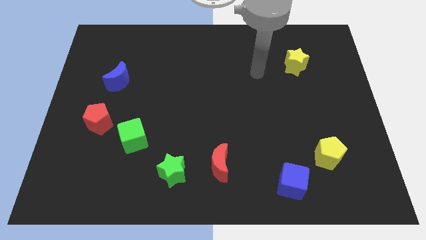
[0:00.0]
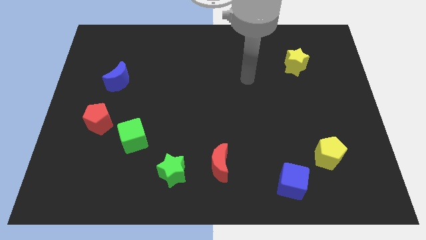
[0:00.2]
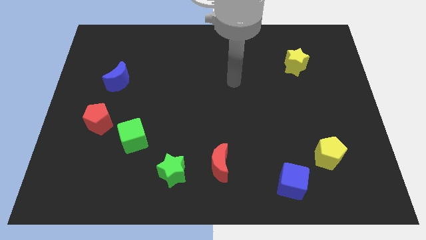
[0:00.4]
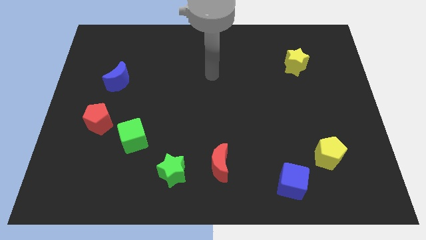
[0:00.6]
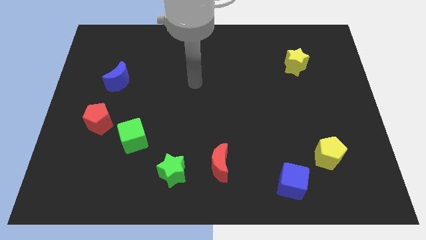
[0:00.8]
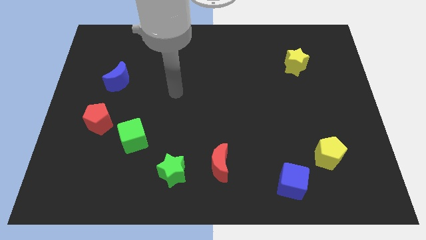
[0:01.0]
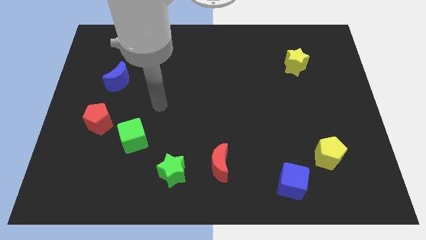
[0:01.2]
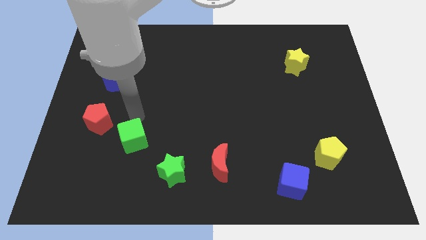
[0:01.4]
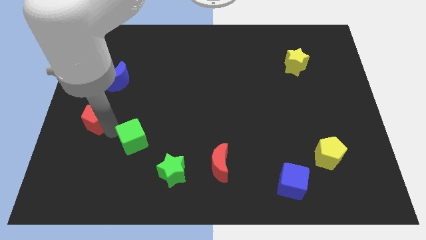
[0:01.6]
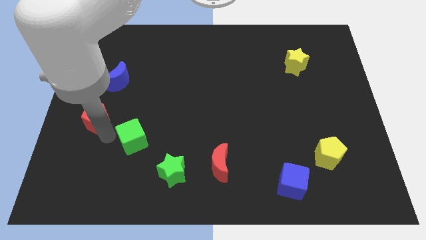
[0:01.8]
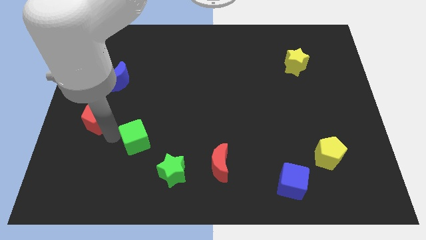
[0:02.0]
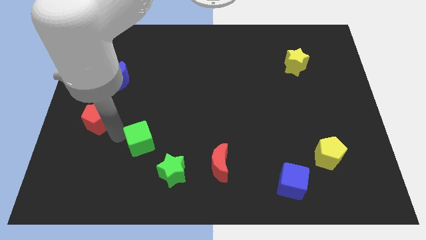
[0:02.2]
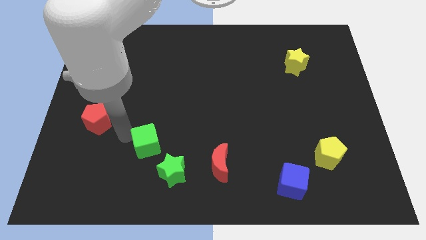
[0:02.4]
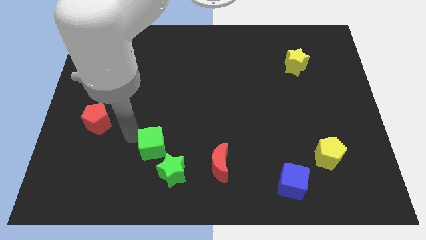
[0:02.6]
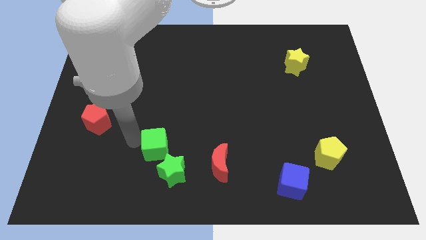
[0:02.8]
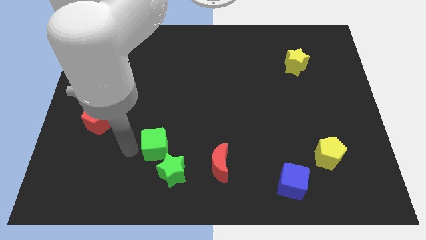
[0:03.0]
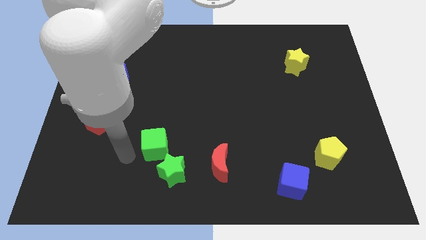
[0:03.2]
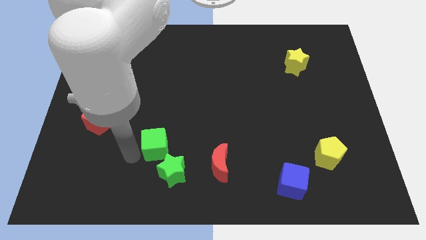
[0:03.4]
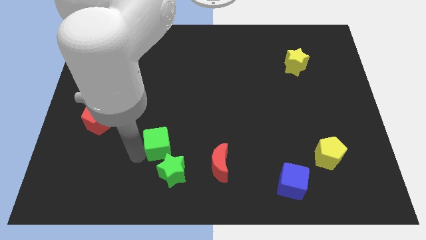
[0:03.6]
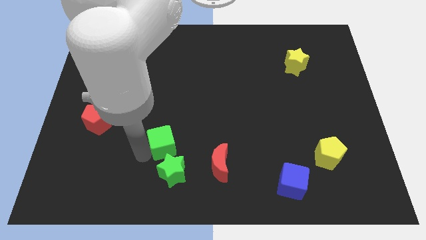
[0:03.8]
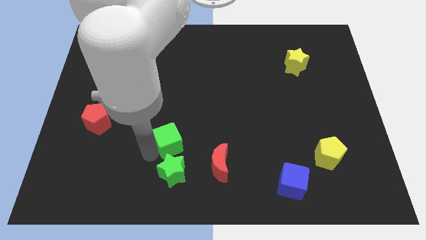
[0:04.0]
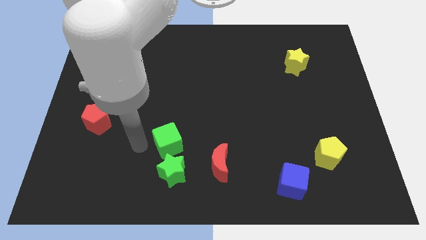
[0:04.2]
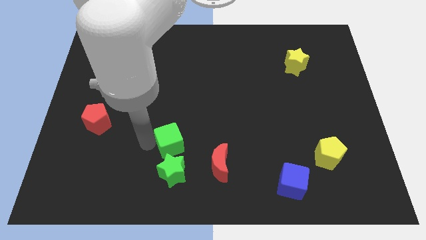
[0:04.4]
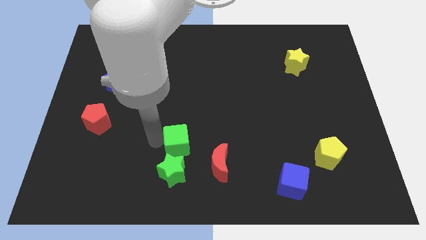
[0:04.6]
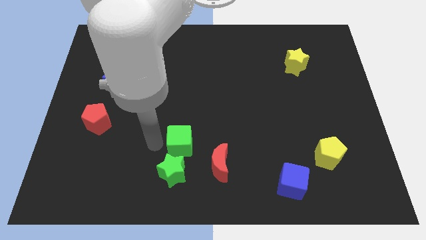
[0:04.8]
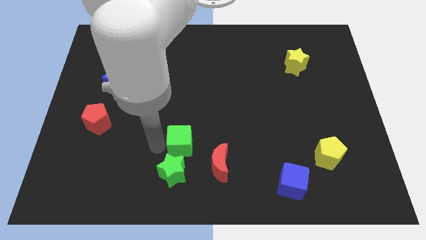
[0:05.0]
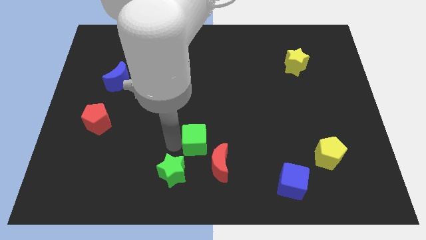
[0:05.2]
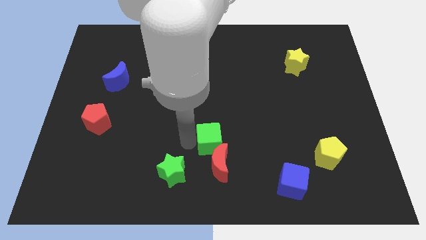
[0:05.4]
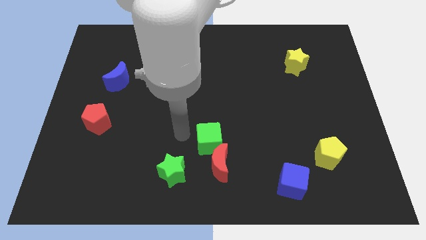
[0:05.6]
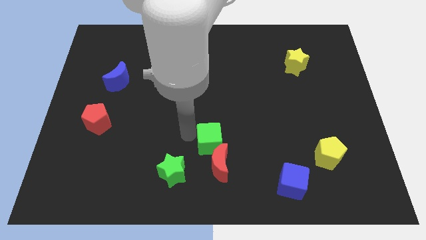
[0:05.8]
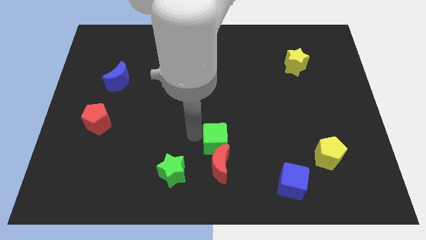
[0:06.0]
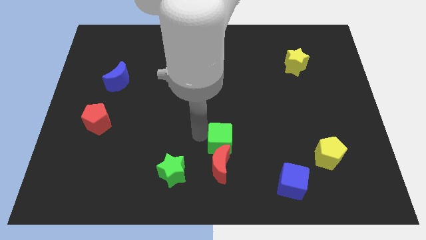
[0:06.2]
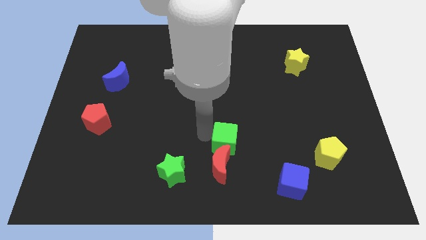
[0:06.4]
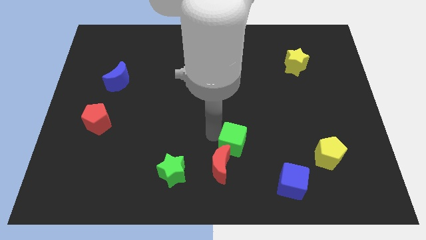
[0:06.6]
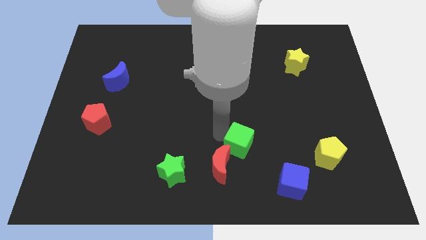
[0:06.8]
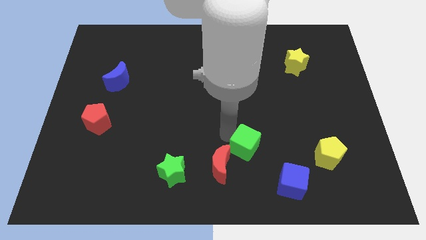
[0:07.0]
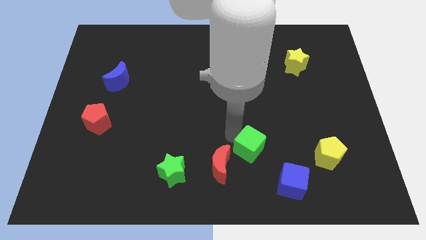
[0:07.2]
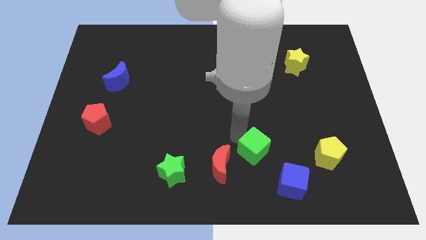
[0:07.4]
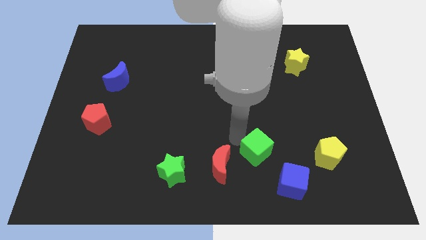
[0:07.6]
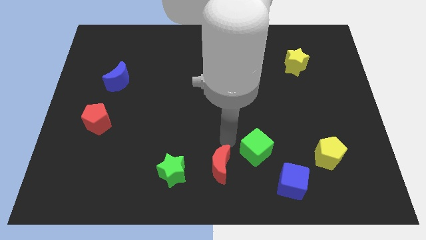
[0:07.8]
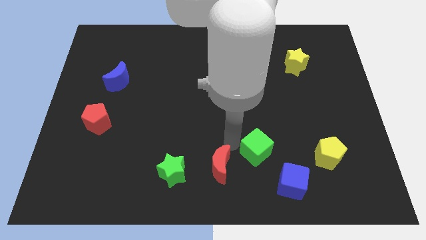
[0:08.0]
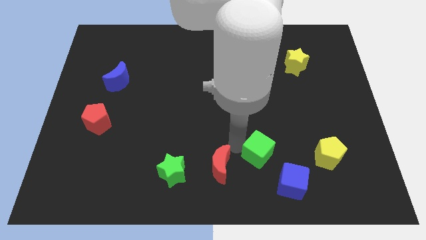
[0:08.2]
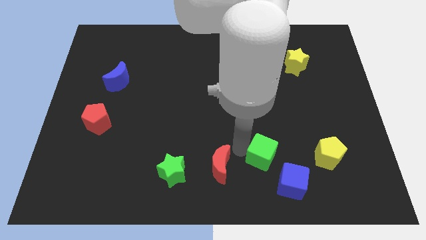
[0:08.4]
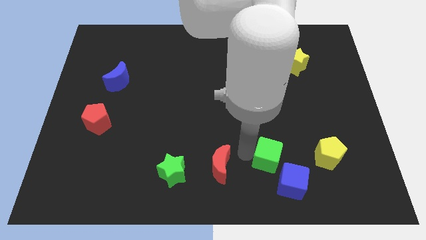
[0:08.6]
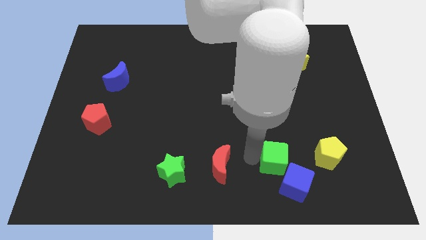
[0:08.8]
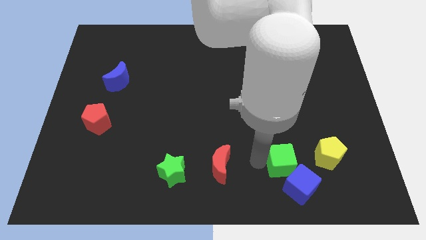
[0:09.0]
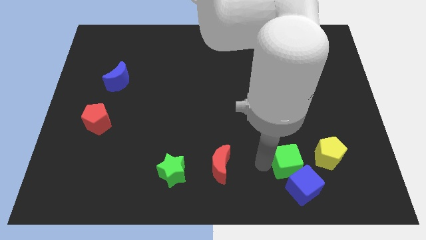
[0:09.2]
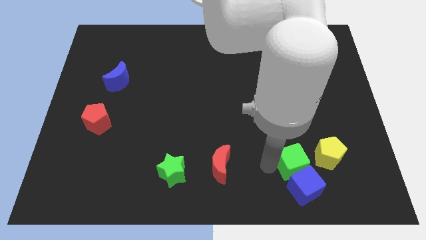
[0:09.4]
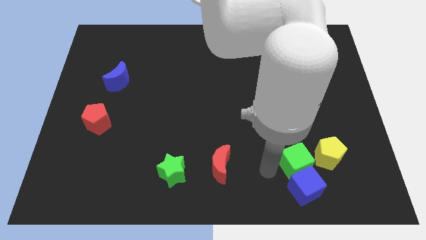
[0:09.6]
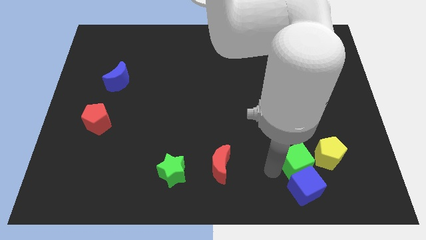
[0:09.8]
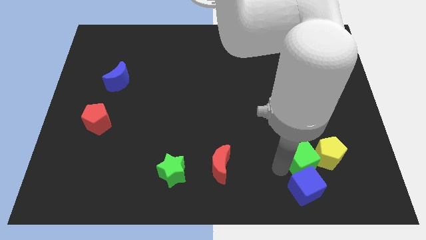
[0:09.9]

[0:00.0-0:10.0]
move the green cube towards the yellow pentagon

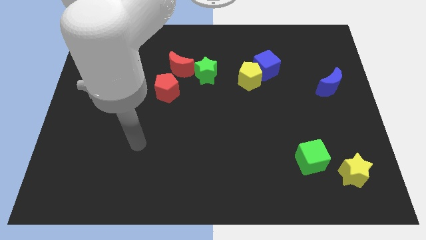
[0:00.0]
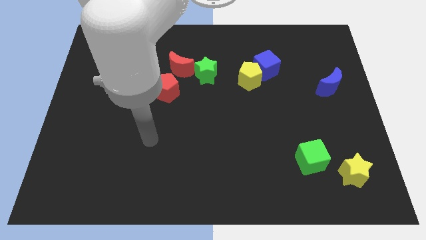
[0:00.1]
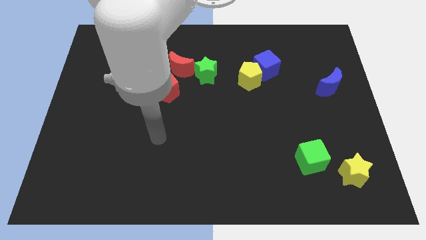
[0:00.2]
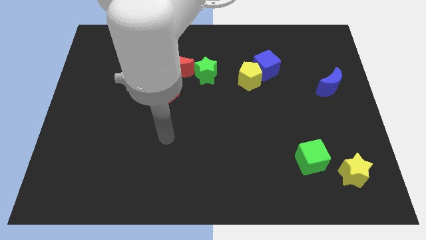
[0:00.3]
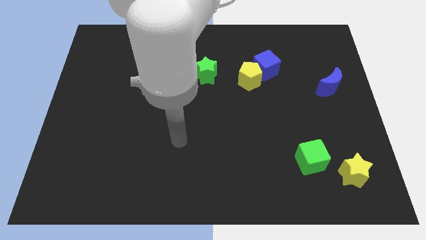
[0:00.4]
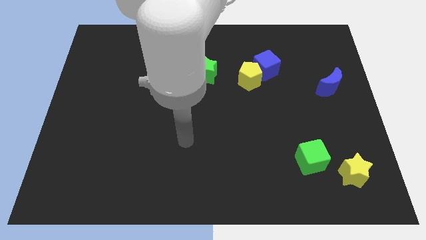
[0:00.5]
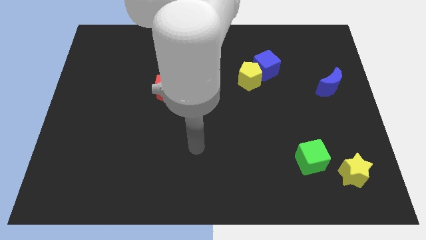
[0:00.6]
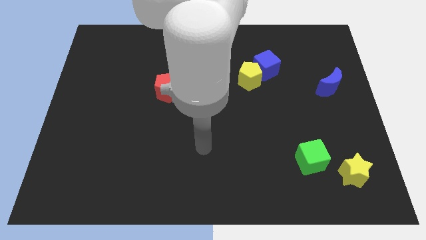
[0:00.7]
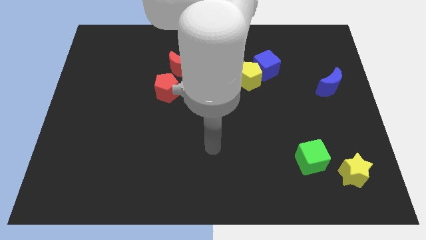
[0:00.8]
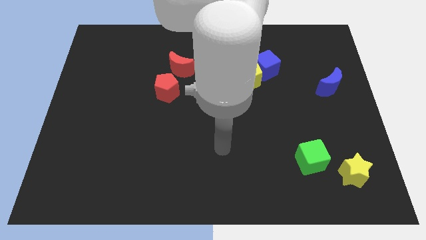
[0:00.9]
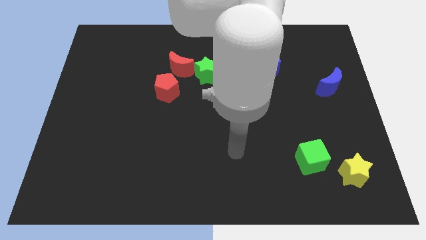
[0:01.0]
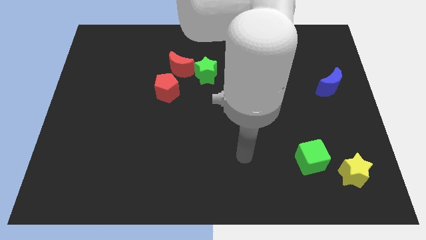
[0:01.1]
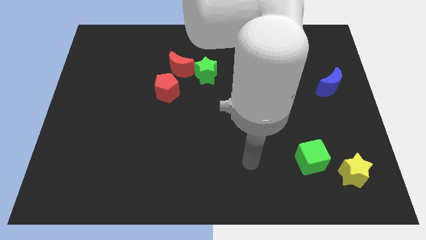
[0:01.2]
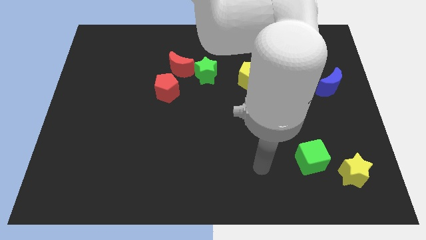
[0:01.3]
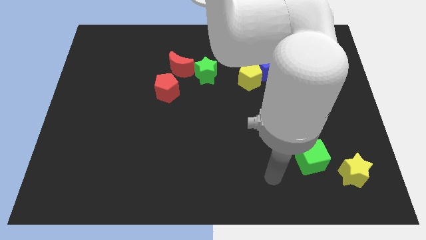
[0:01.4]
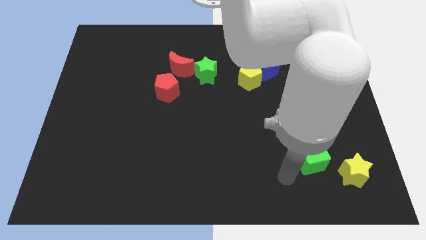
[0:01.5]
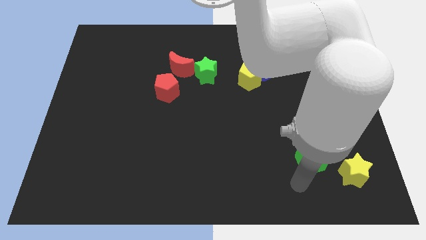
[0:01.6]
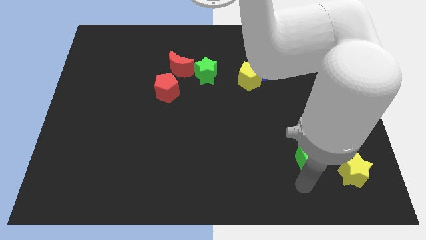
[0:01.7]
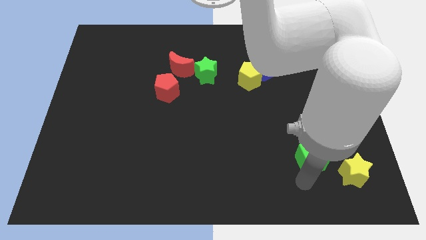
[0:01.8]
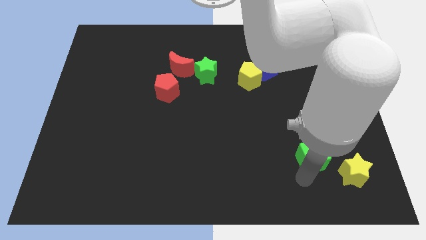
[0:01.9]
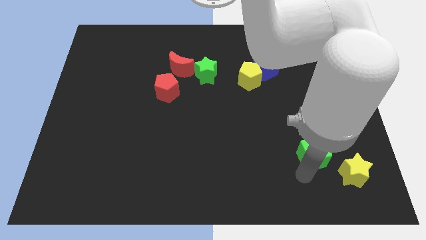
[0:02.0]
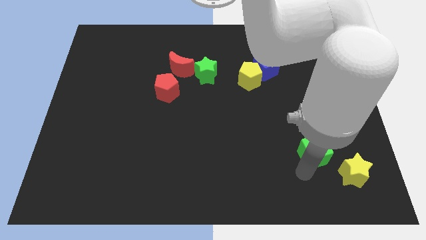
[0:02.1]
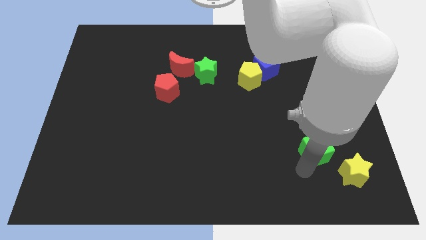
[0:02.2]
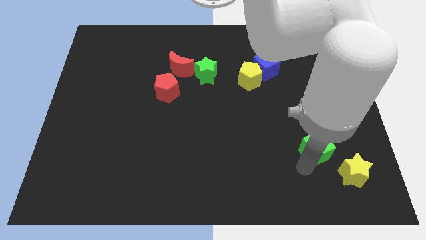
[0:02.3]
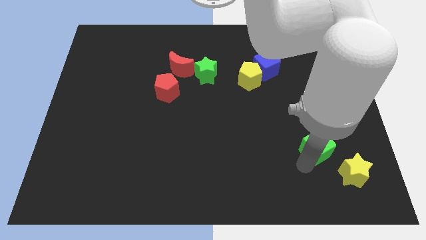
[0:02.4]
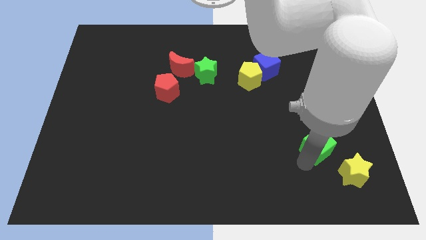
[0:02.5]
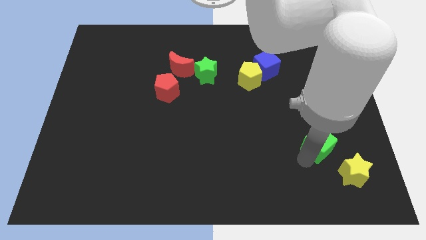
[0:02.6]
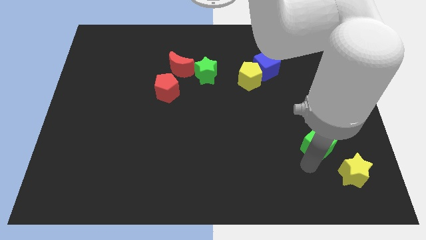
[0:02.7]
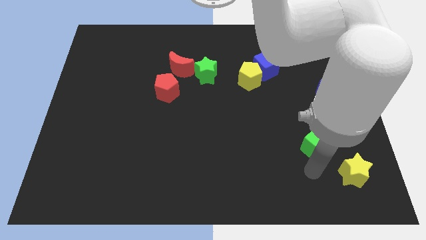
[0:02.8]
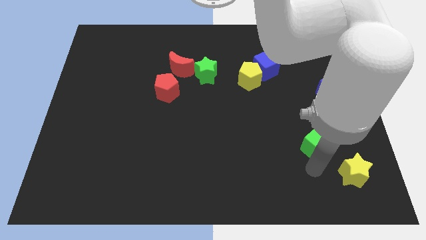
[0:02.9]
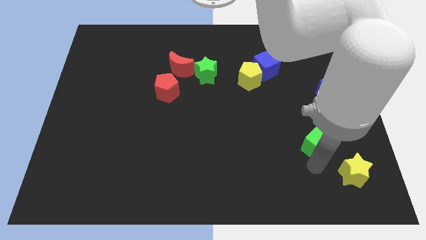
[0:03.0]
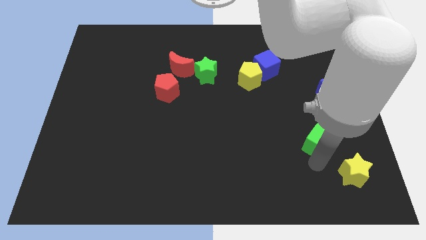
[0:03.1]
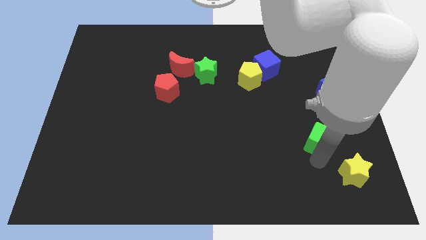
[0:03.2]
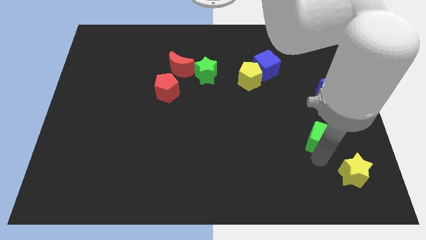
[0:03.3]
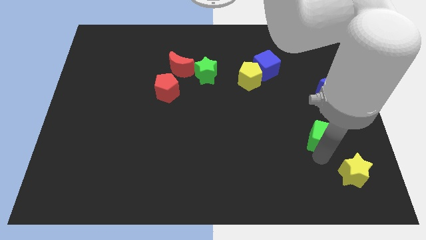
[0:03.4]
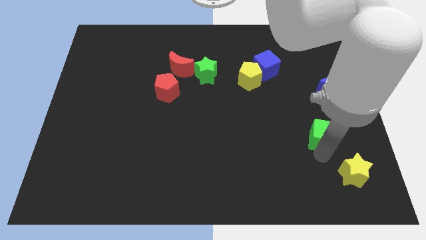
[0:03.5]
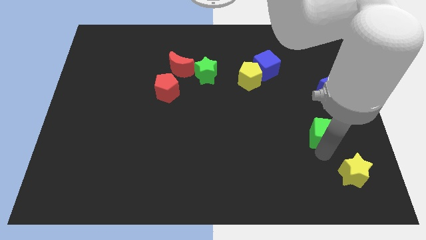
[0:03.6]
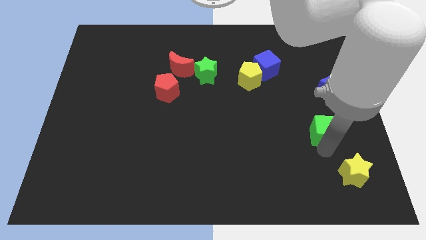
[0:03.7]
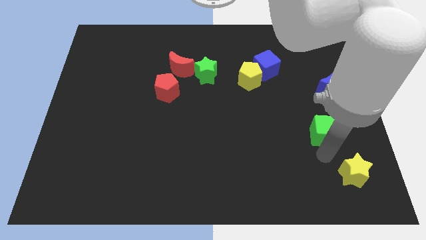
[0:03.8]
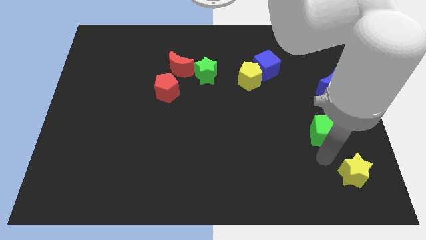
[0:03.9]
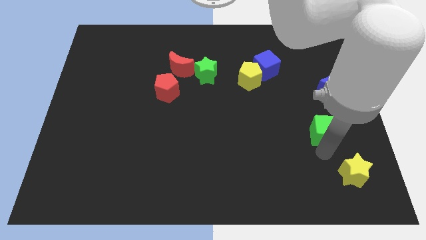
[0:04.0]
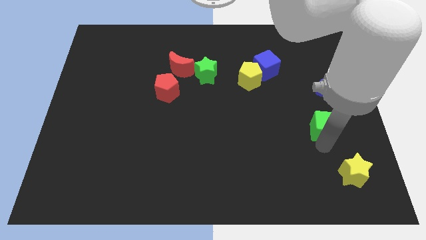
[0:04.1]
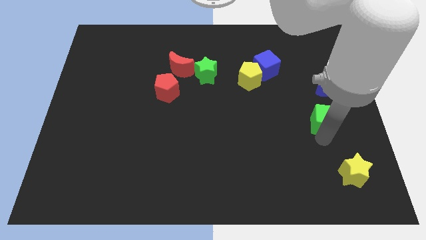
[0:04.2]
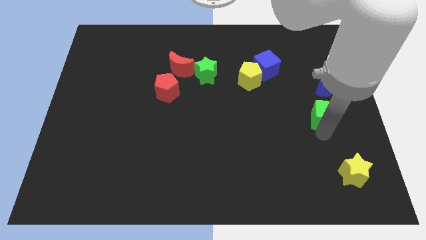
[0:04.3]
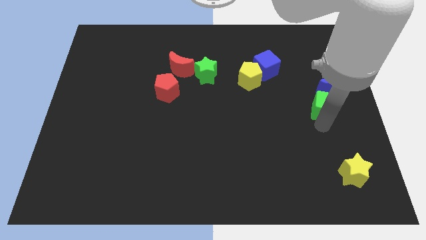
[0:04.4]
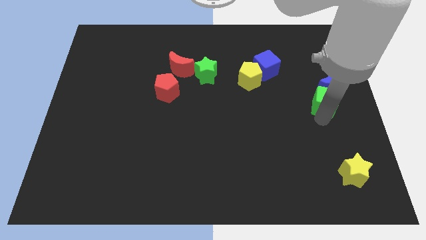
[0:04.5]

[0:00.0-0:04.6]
put the green cube close to the blue moon
